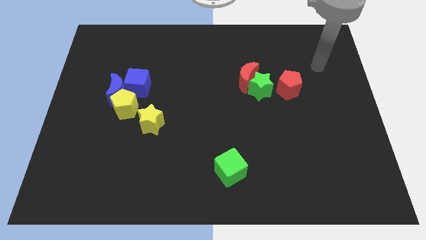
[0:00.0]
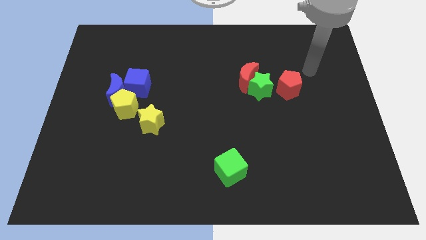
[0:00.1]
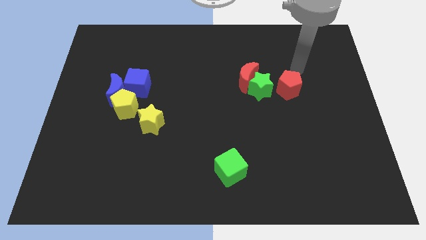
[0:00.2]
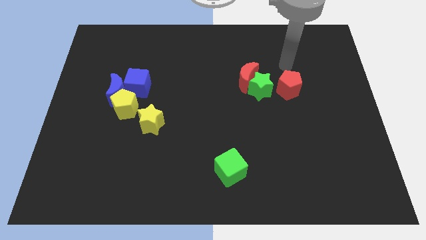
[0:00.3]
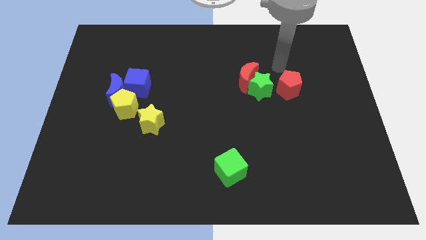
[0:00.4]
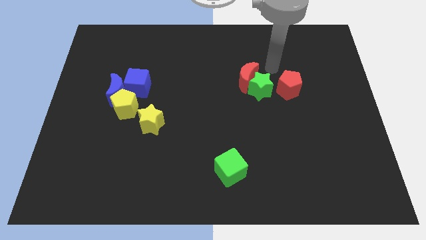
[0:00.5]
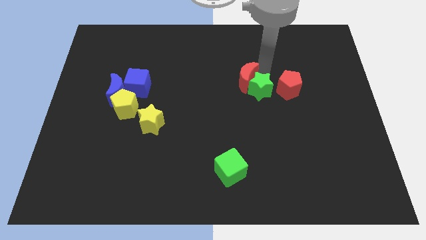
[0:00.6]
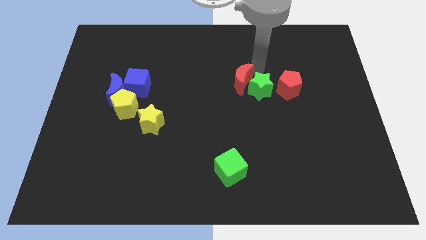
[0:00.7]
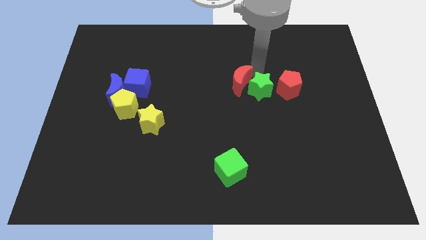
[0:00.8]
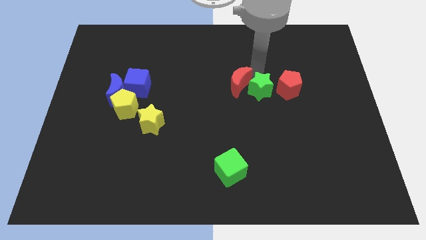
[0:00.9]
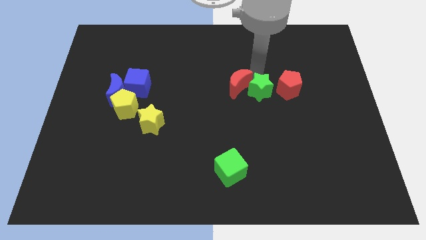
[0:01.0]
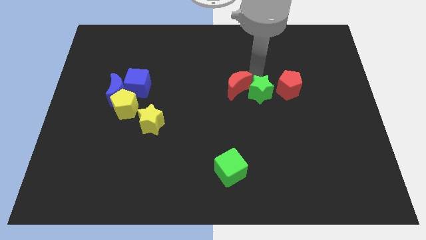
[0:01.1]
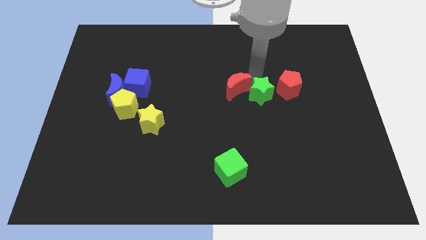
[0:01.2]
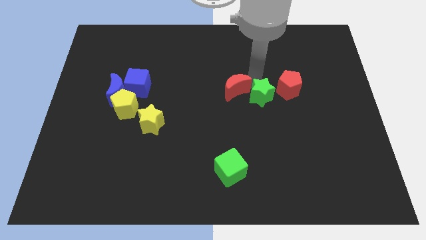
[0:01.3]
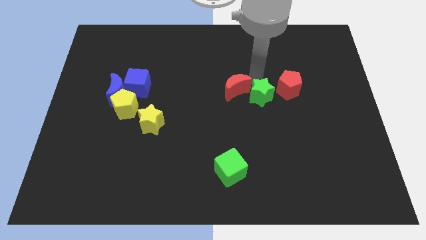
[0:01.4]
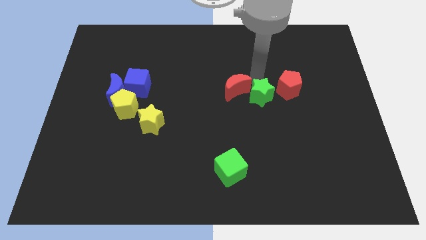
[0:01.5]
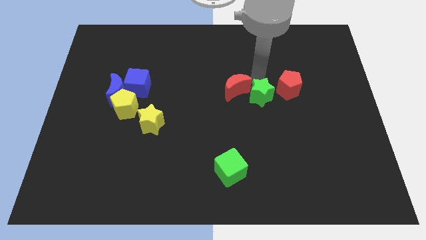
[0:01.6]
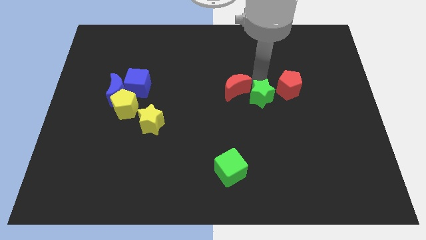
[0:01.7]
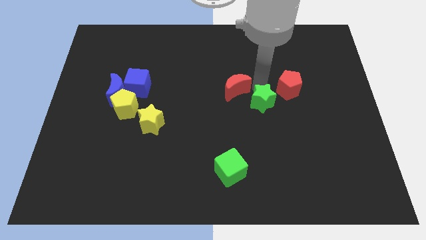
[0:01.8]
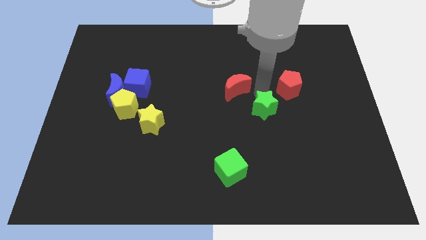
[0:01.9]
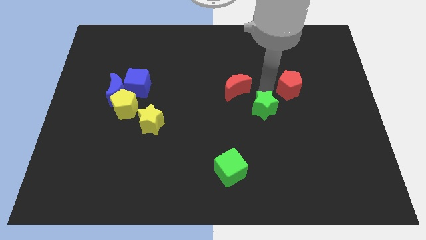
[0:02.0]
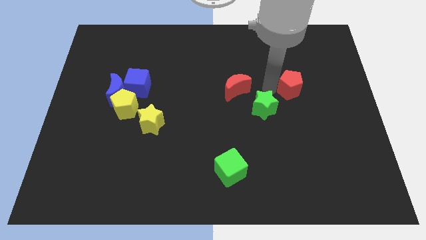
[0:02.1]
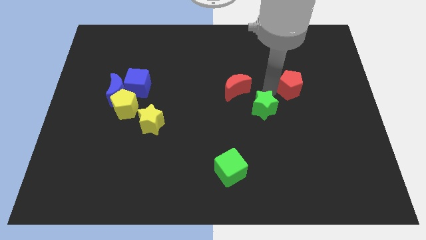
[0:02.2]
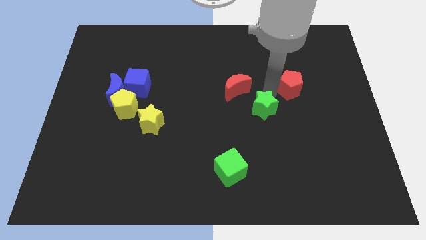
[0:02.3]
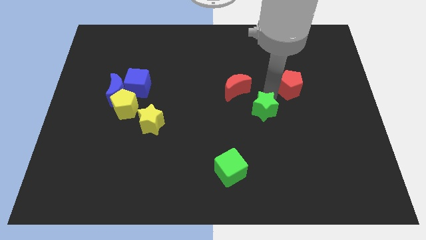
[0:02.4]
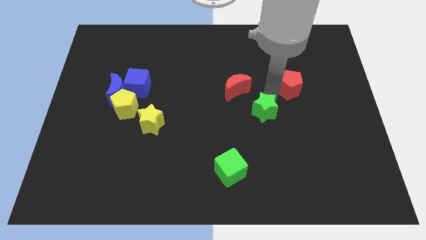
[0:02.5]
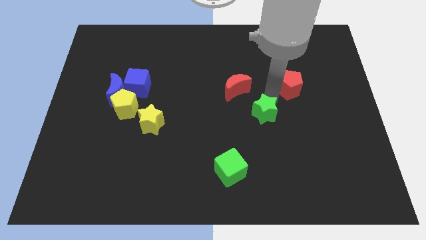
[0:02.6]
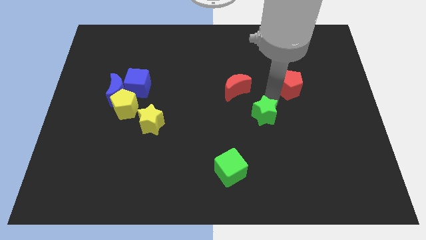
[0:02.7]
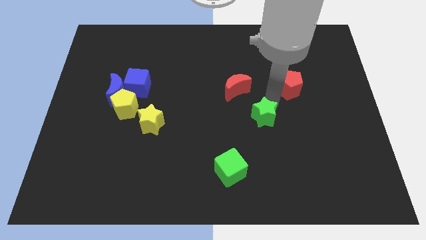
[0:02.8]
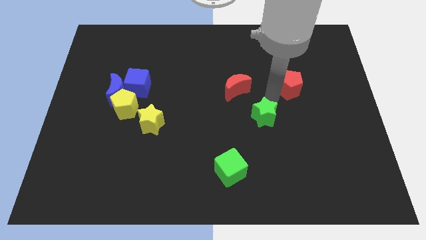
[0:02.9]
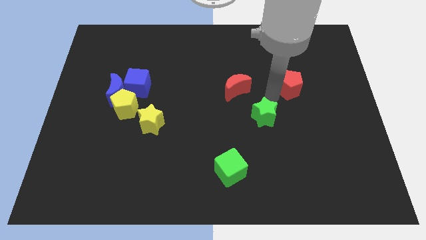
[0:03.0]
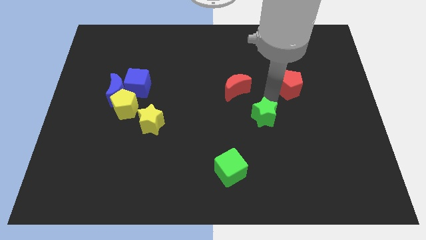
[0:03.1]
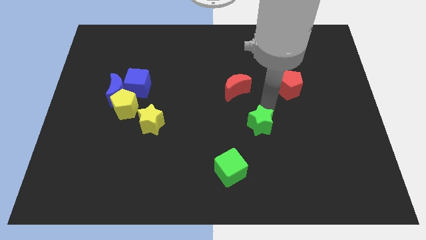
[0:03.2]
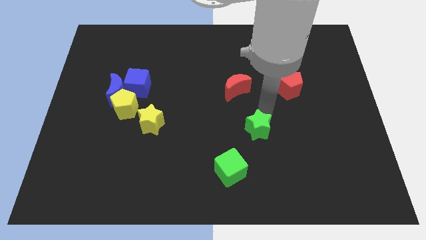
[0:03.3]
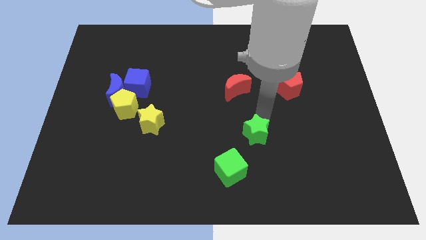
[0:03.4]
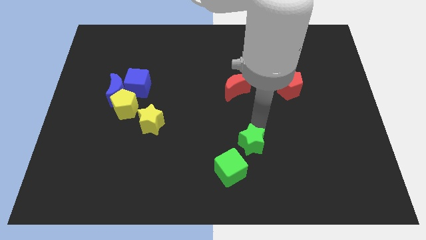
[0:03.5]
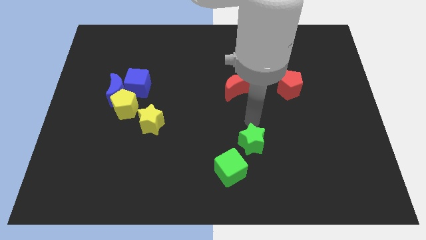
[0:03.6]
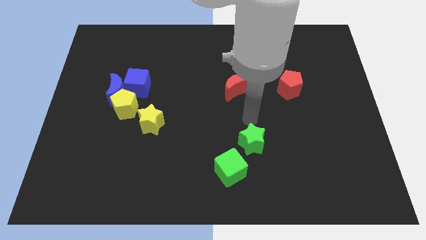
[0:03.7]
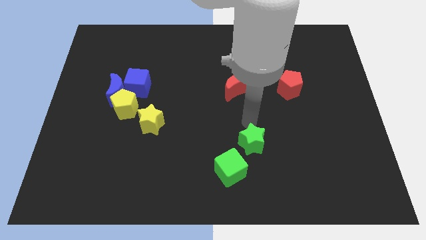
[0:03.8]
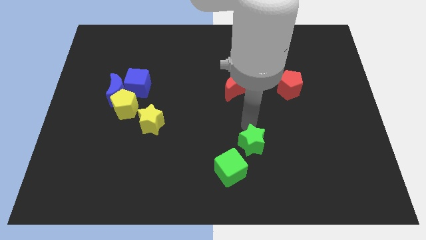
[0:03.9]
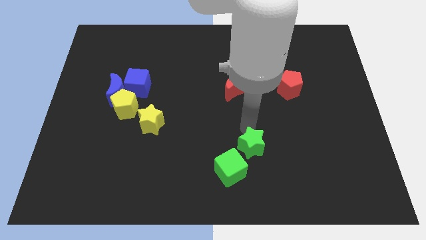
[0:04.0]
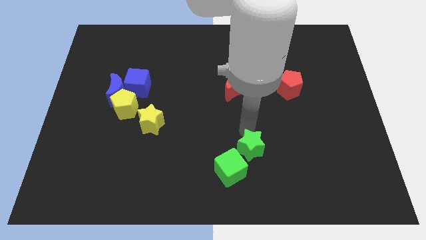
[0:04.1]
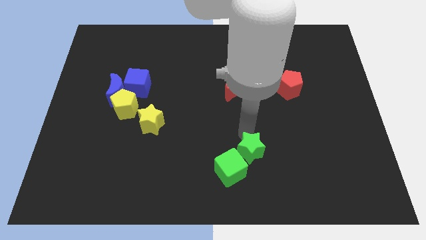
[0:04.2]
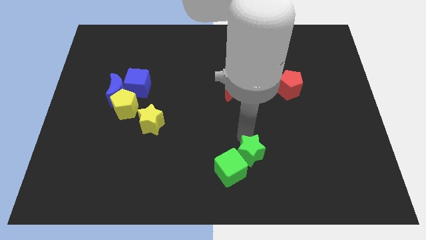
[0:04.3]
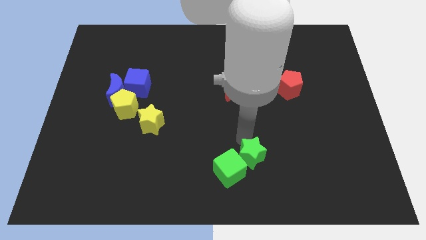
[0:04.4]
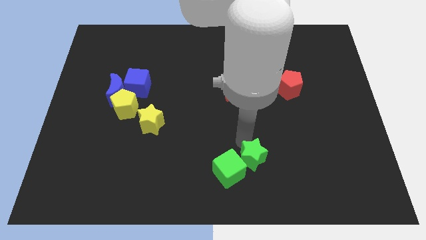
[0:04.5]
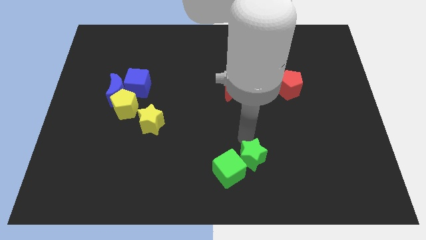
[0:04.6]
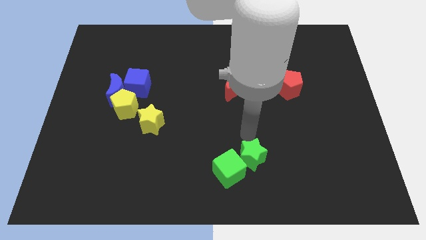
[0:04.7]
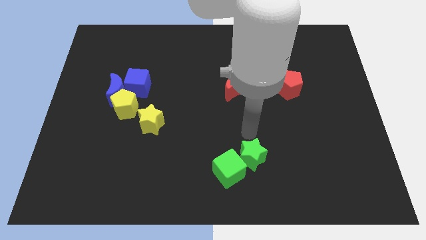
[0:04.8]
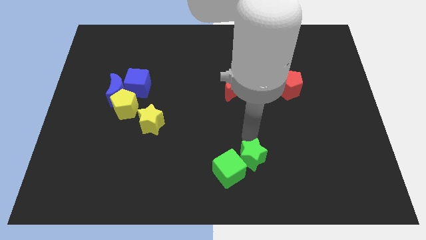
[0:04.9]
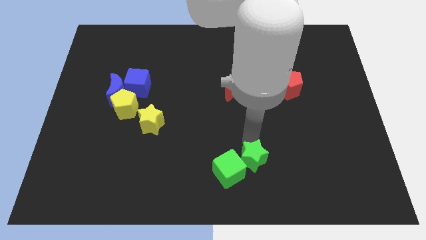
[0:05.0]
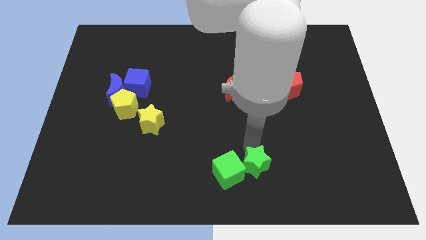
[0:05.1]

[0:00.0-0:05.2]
slide the green star to the bottom side

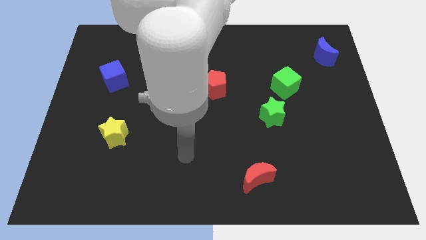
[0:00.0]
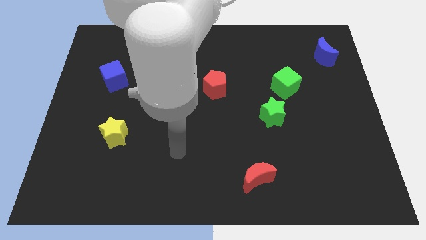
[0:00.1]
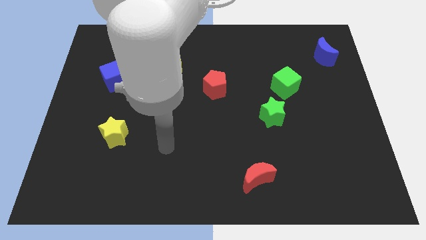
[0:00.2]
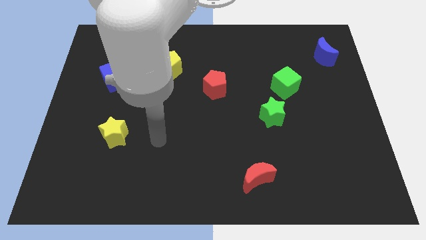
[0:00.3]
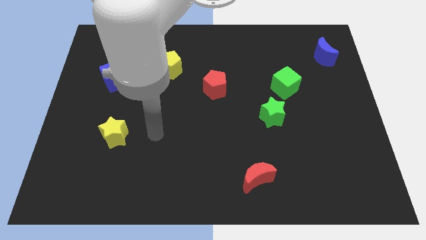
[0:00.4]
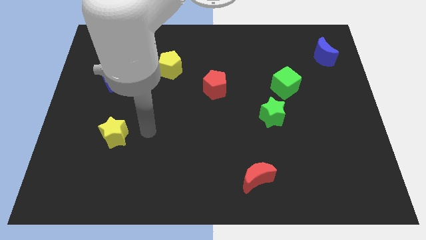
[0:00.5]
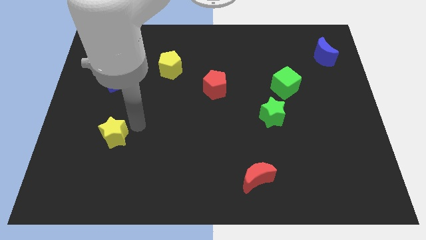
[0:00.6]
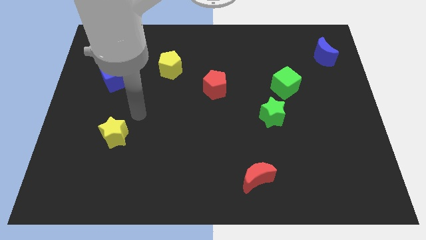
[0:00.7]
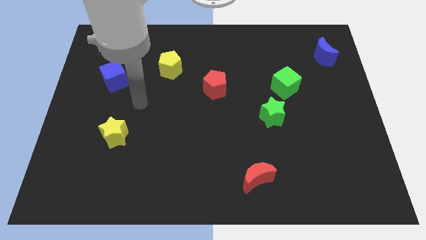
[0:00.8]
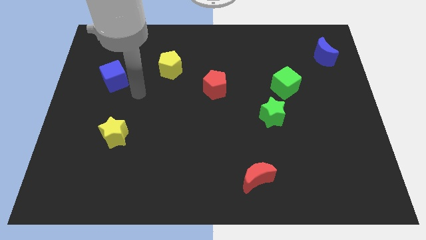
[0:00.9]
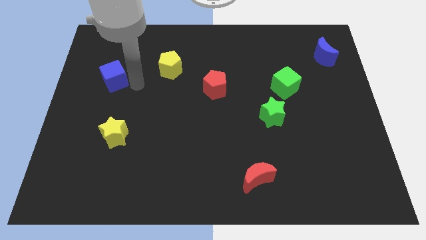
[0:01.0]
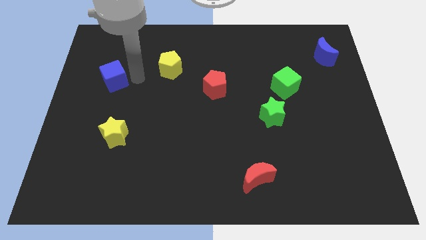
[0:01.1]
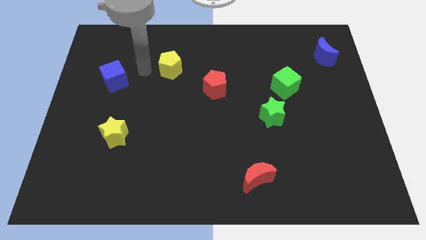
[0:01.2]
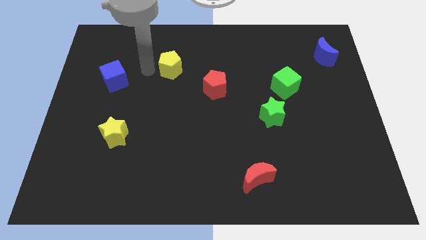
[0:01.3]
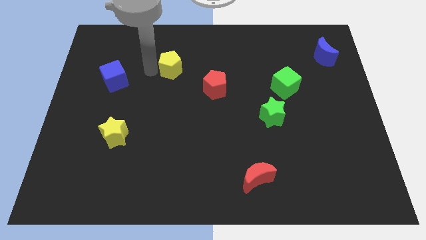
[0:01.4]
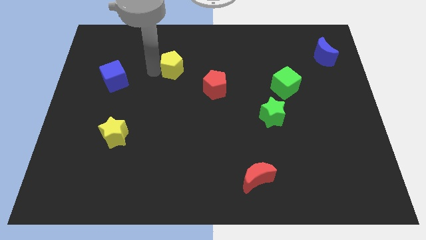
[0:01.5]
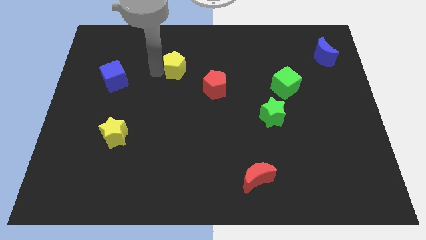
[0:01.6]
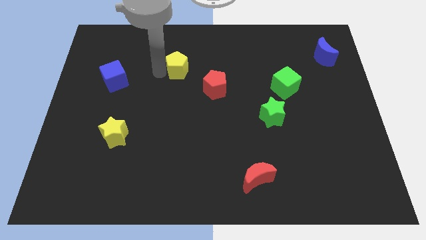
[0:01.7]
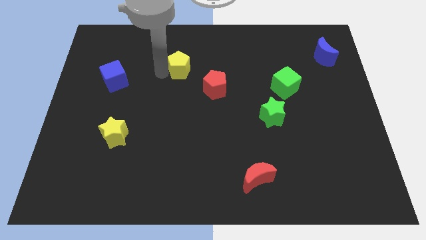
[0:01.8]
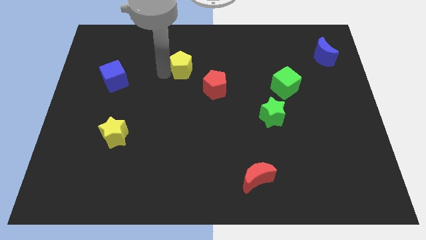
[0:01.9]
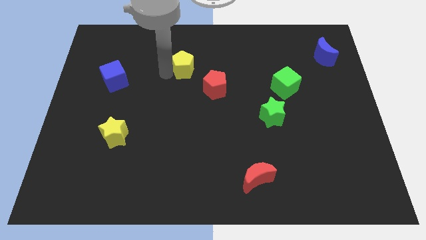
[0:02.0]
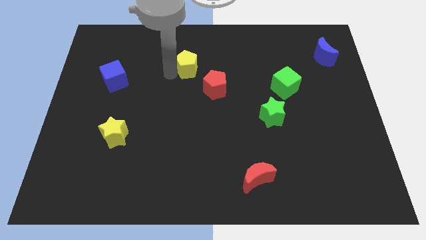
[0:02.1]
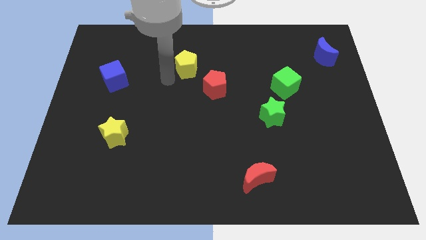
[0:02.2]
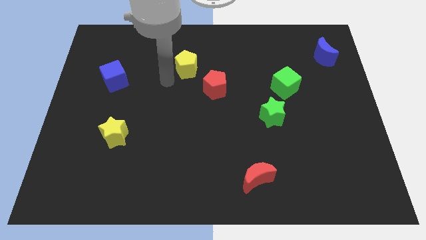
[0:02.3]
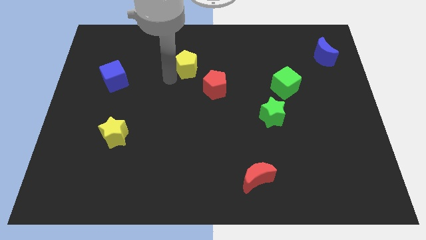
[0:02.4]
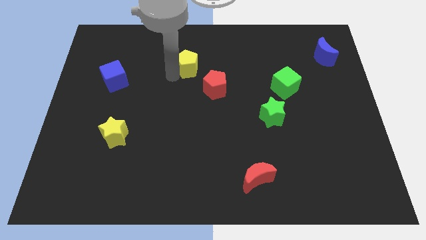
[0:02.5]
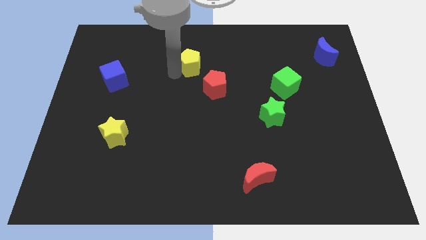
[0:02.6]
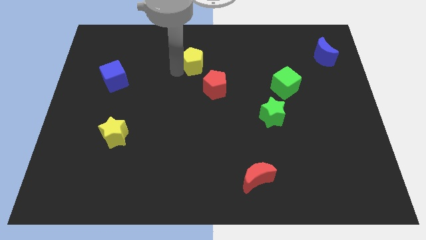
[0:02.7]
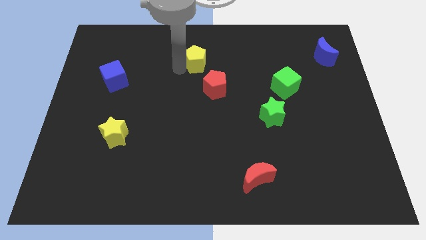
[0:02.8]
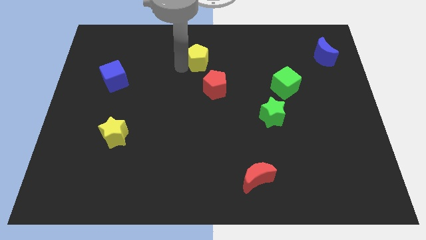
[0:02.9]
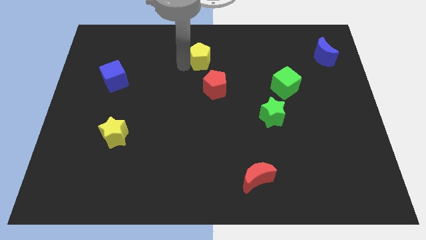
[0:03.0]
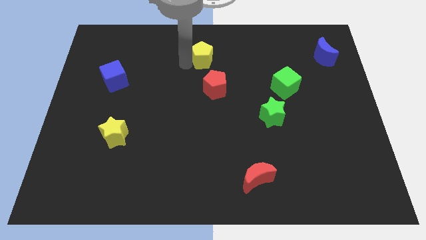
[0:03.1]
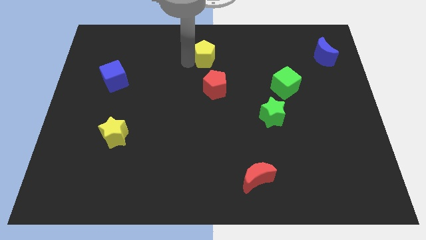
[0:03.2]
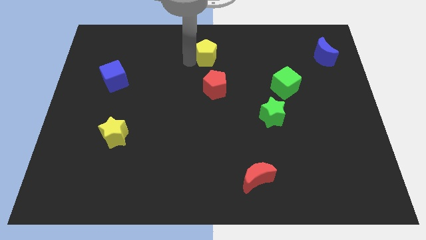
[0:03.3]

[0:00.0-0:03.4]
put the yellow pentagon to the towards your base
